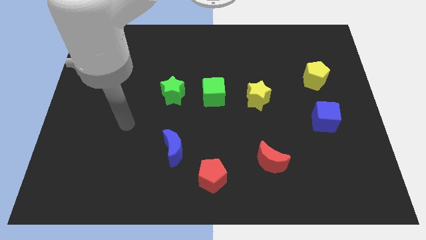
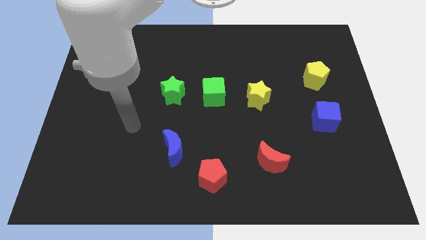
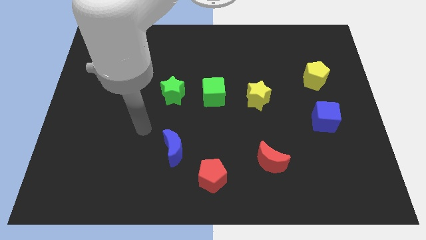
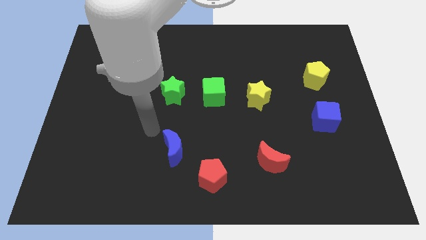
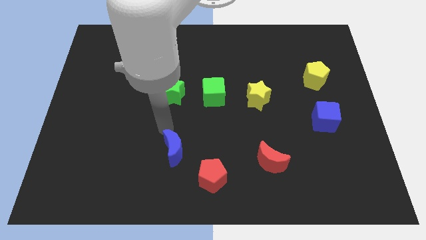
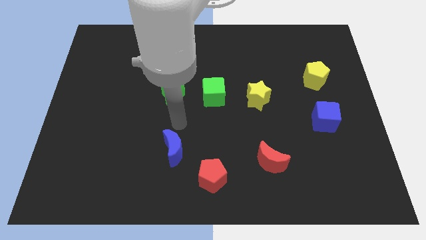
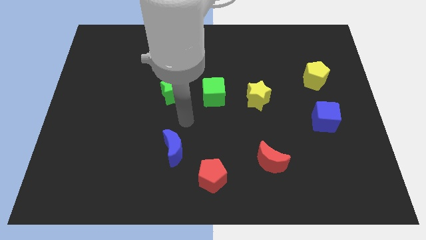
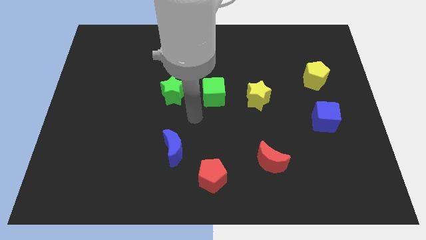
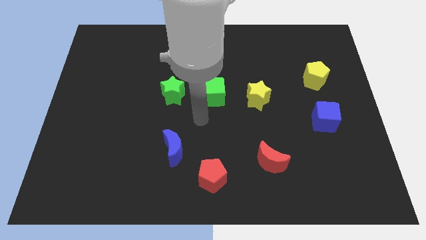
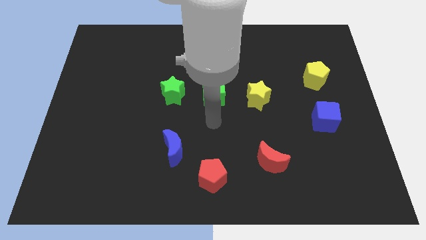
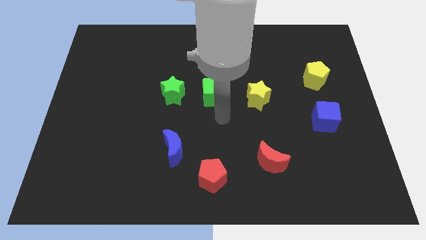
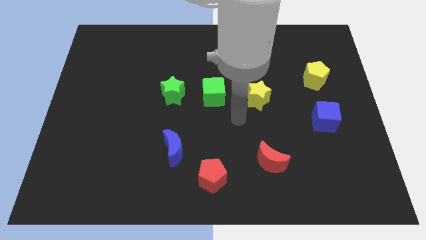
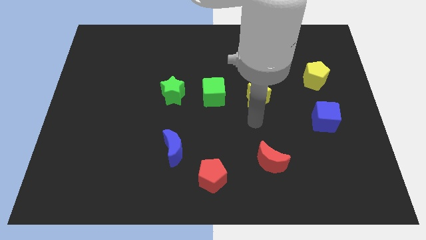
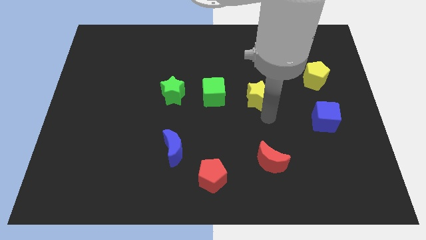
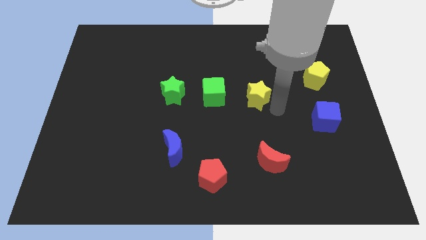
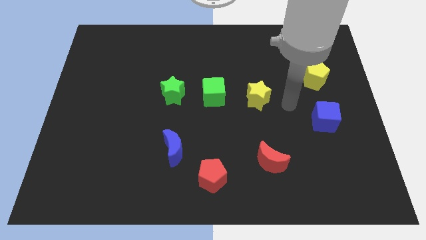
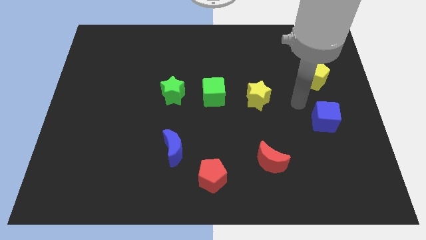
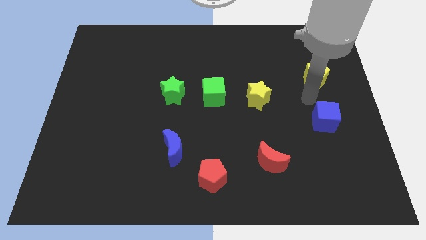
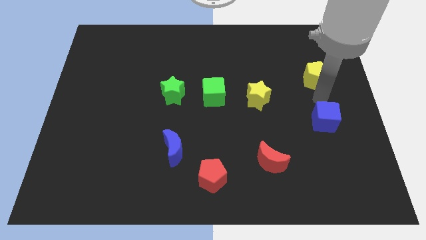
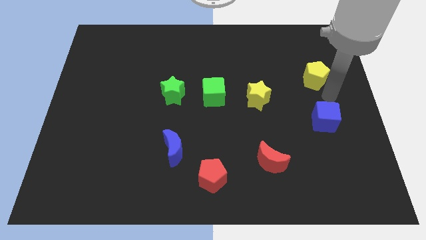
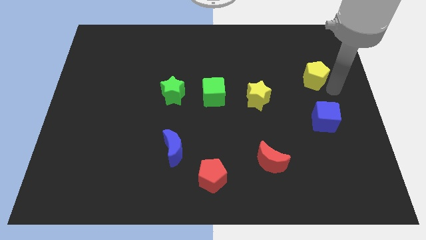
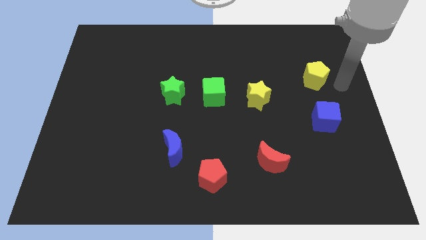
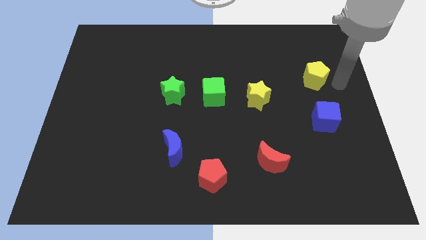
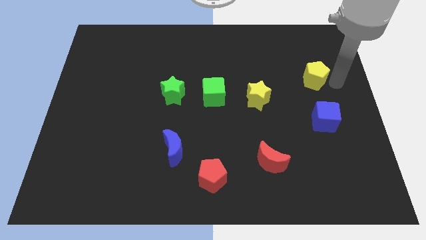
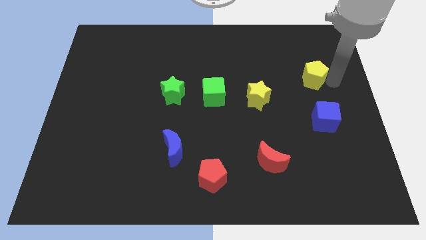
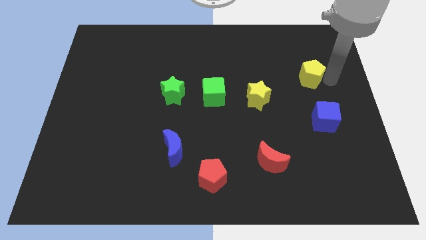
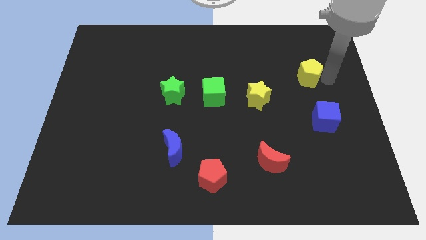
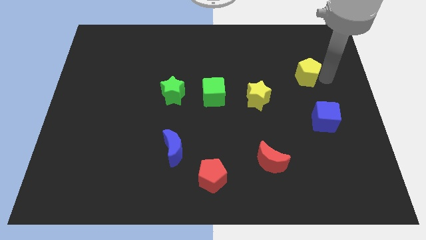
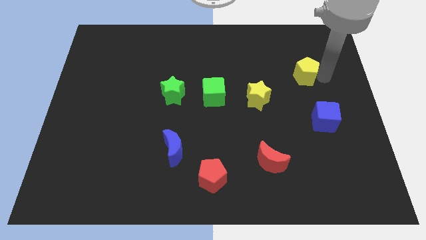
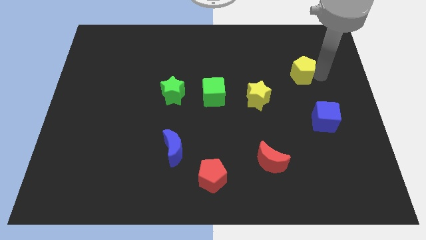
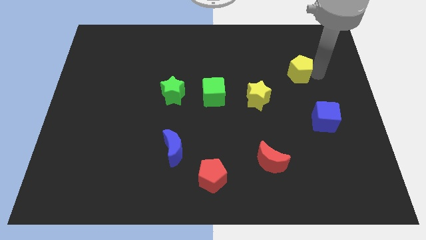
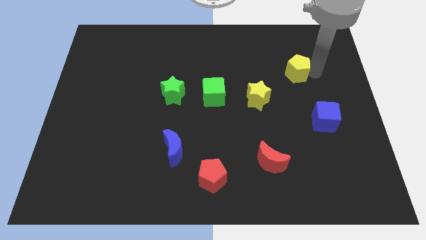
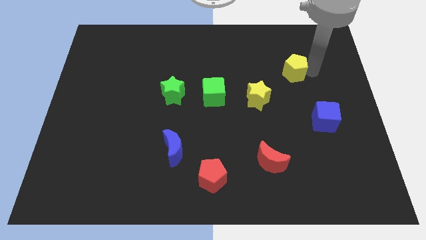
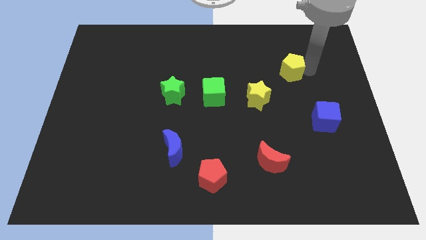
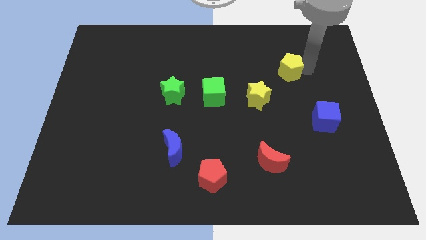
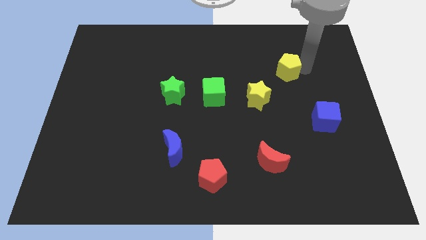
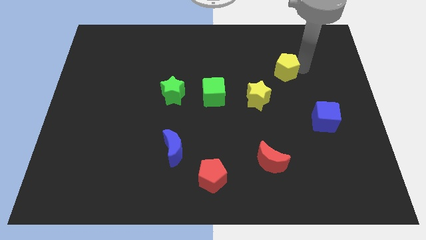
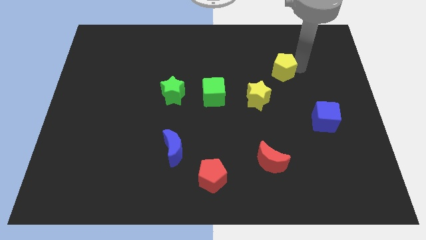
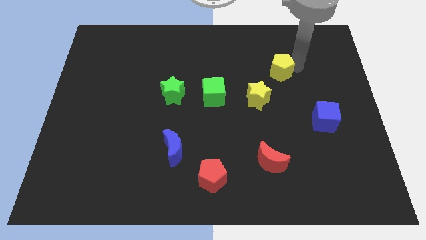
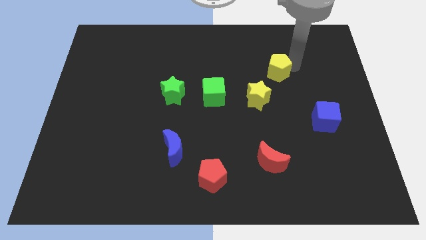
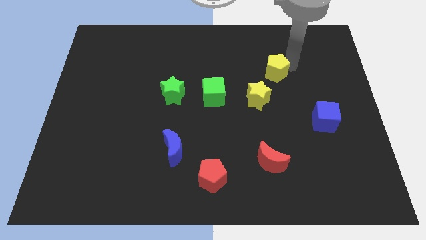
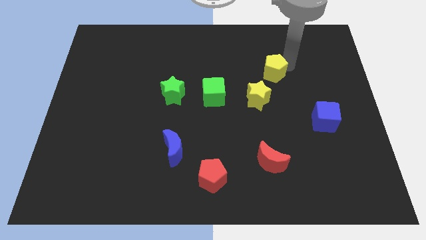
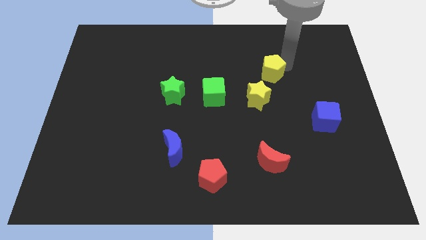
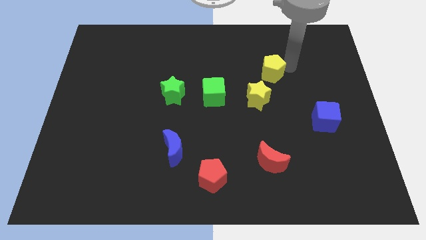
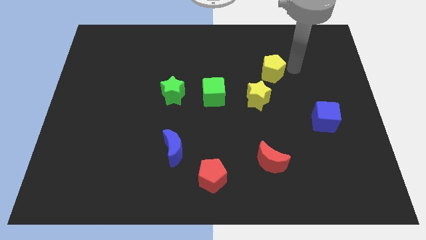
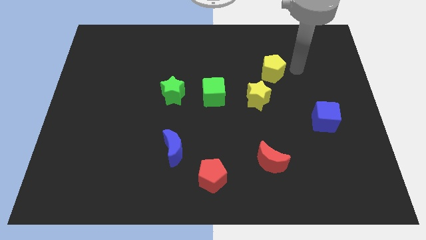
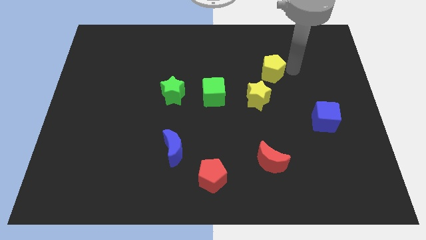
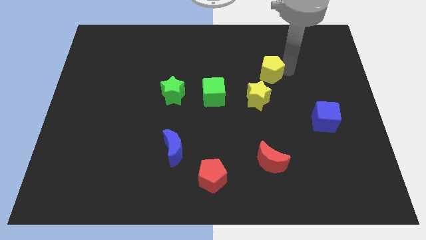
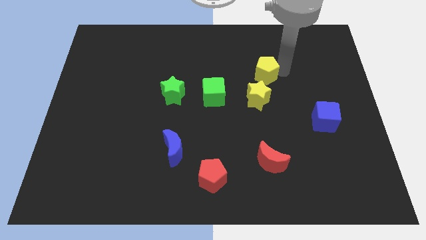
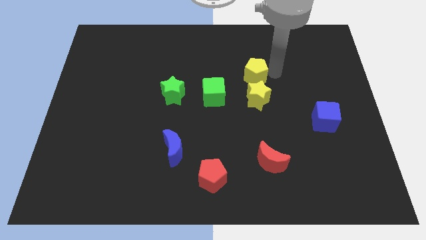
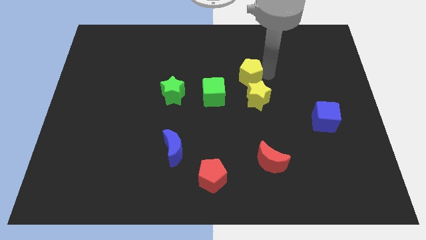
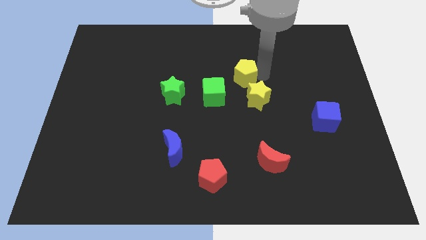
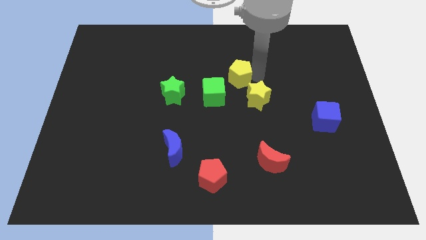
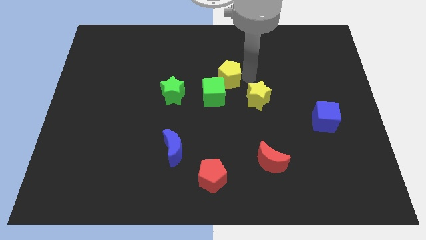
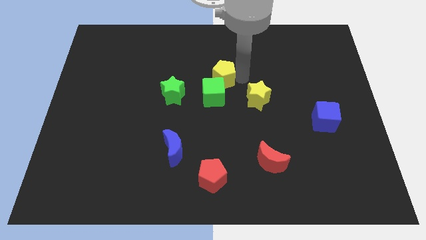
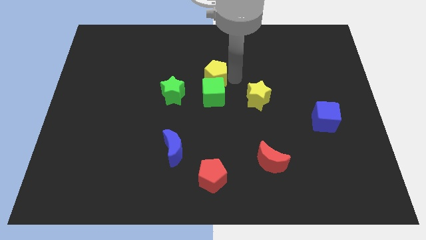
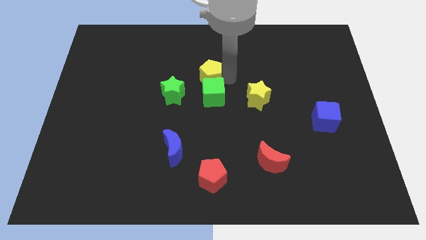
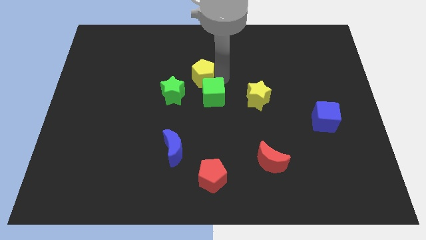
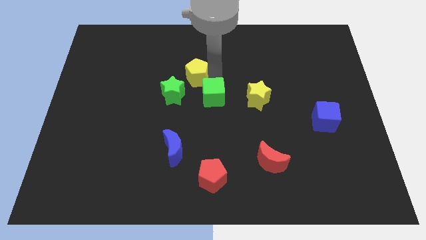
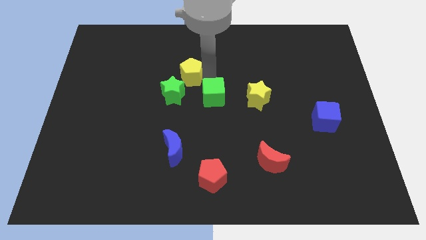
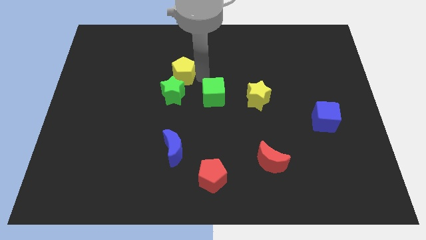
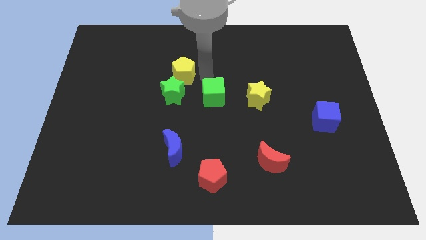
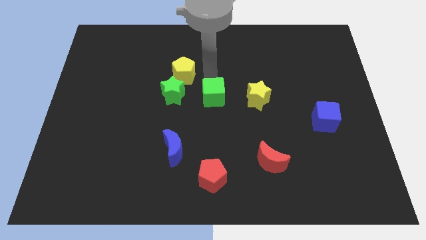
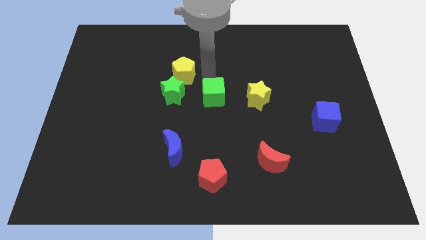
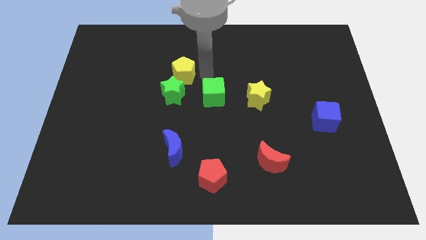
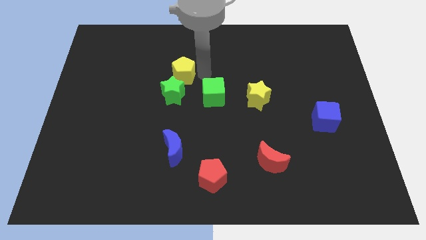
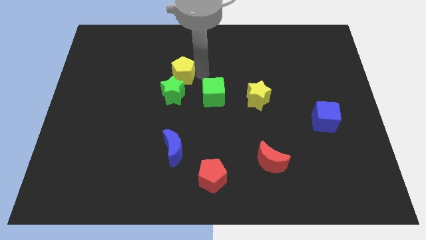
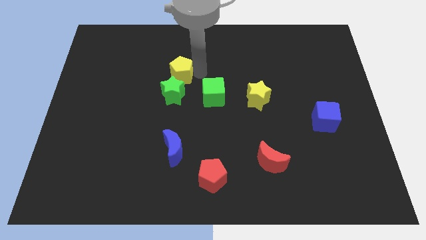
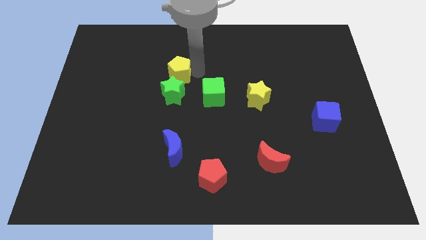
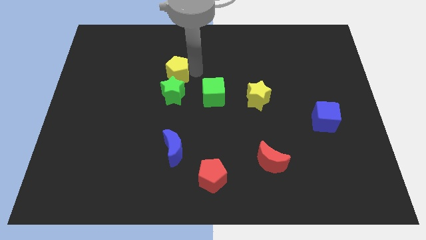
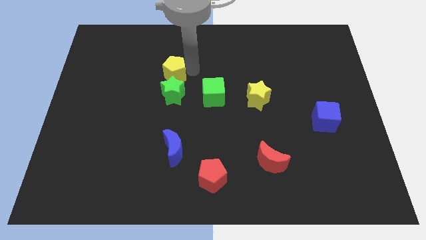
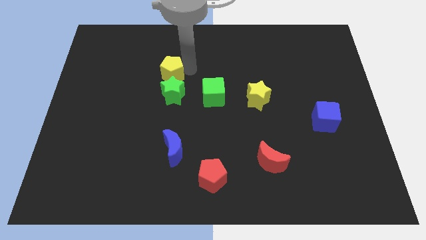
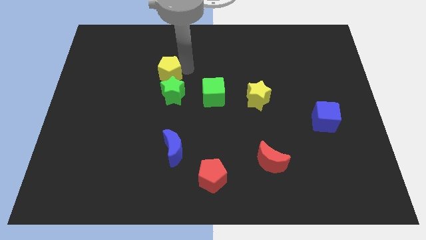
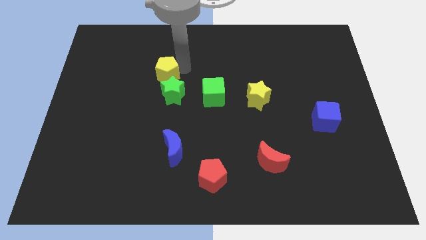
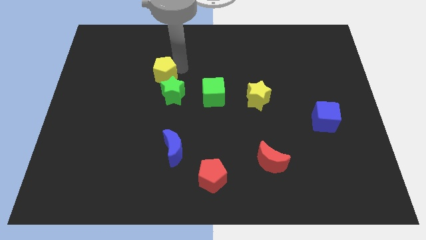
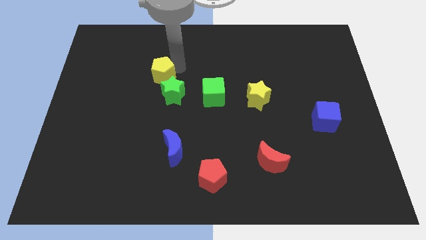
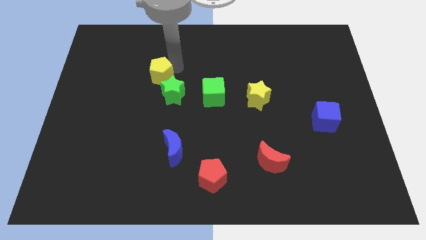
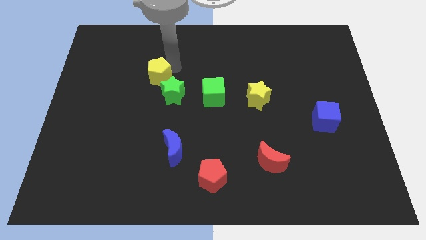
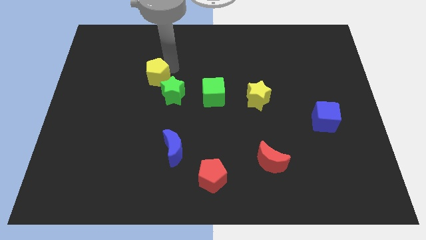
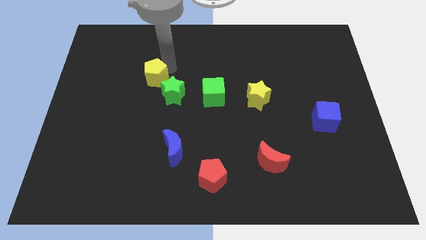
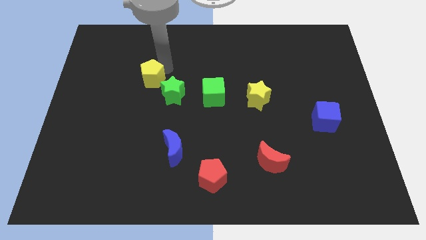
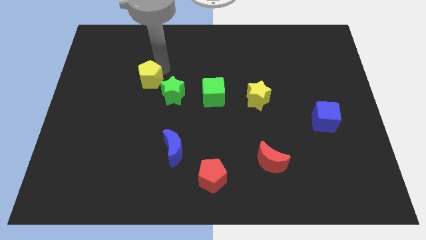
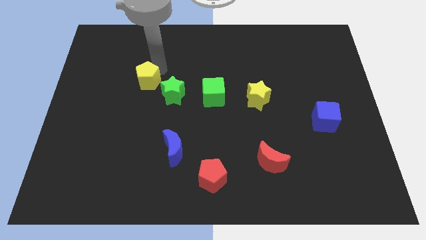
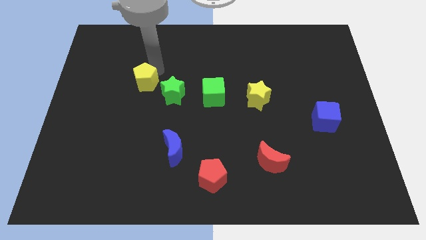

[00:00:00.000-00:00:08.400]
put the yellow pentagon just left of the green star
